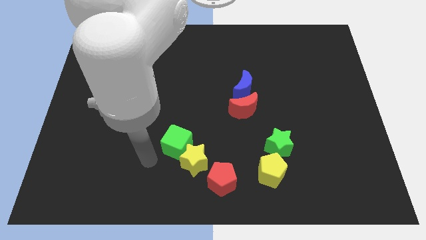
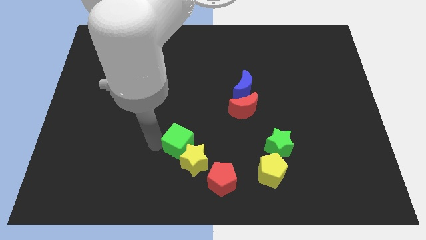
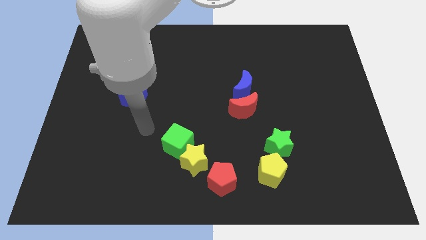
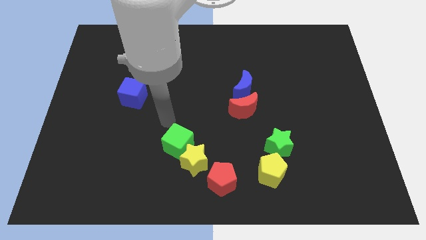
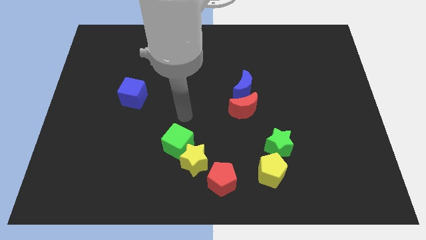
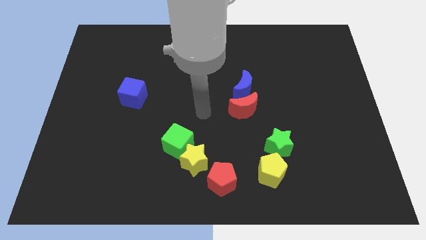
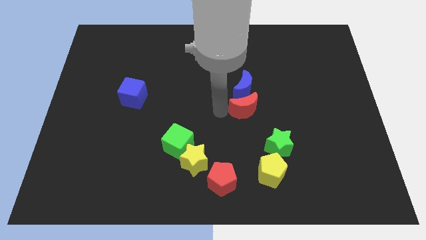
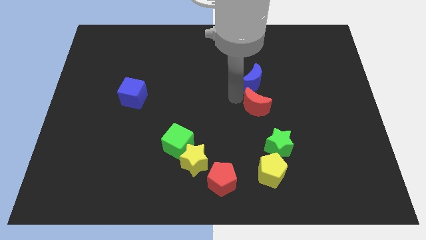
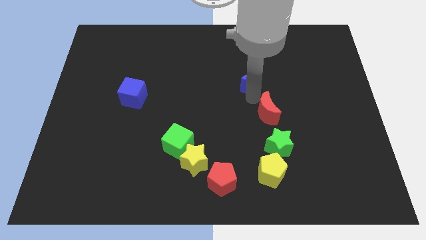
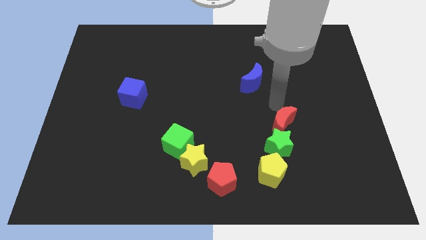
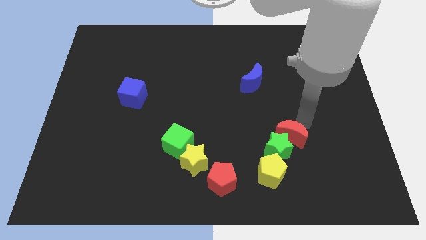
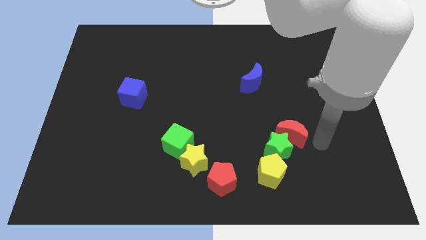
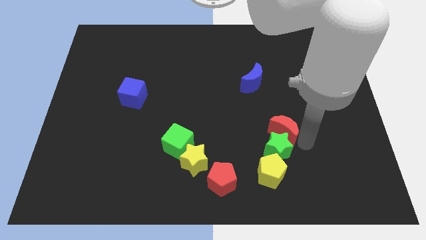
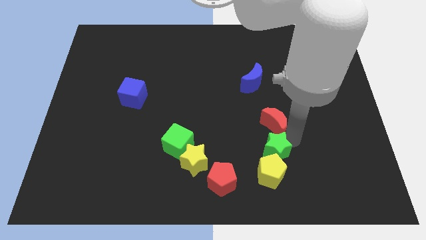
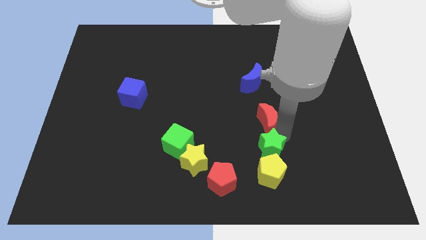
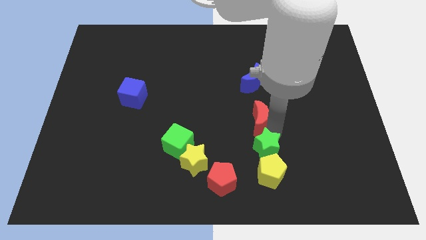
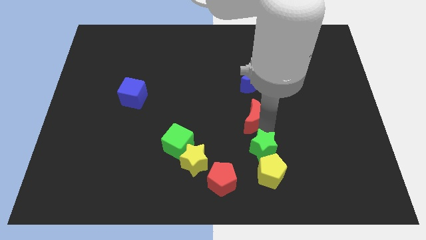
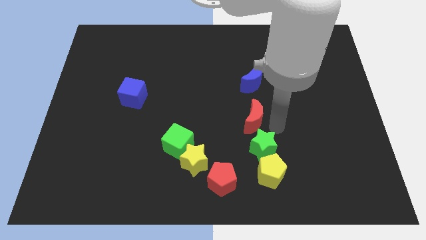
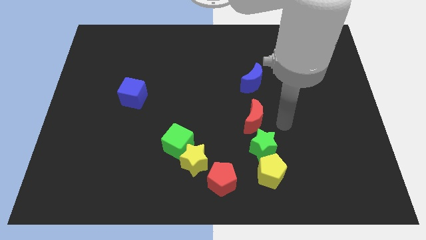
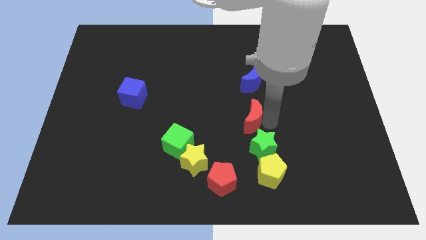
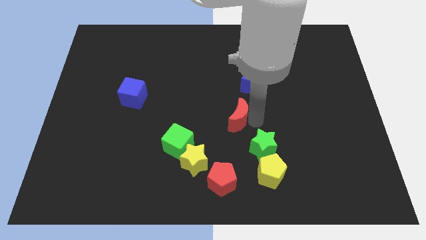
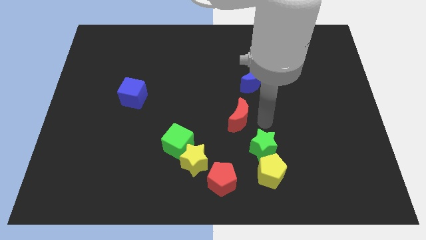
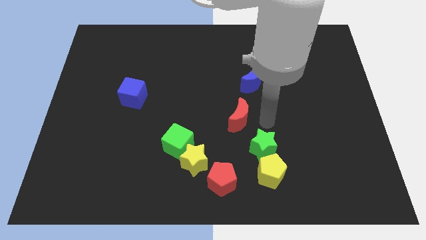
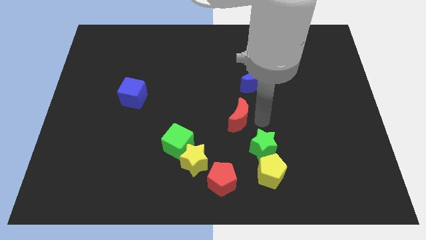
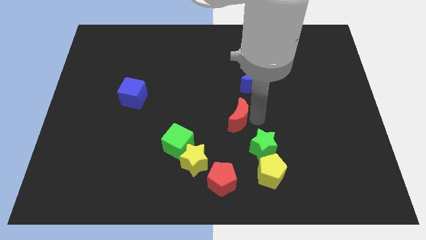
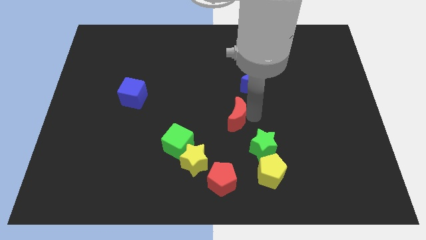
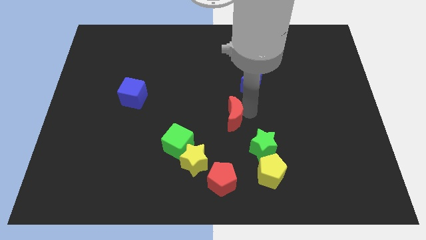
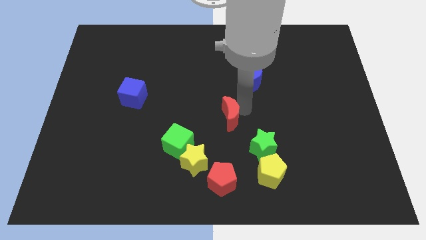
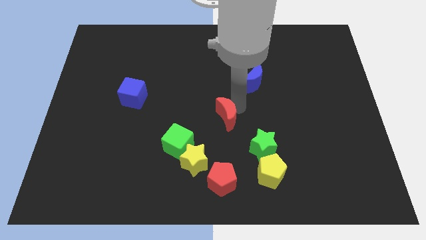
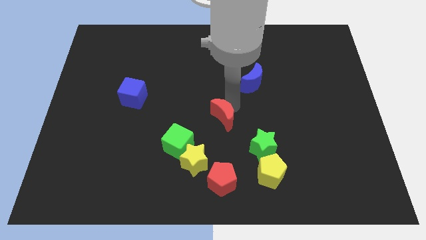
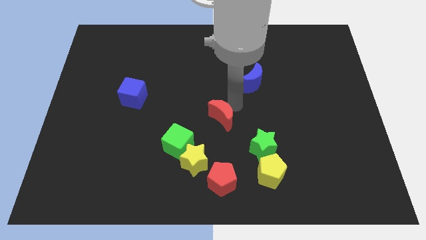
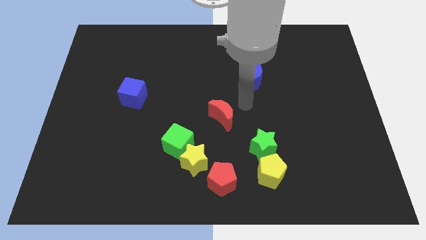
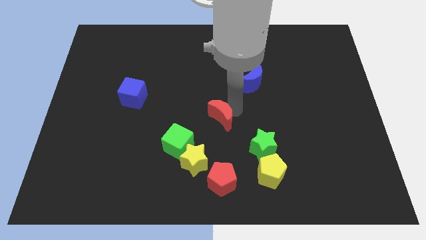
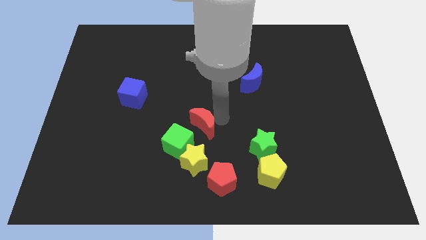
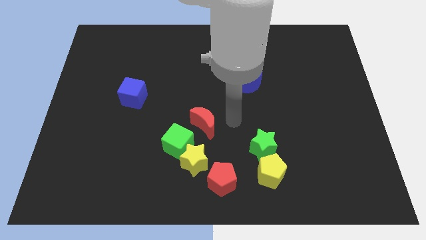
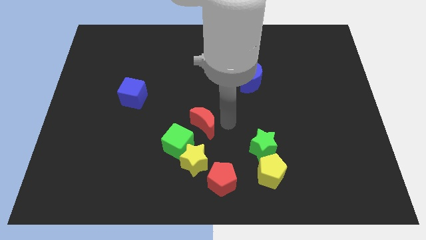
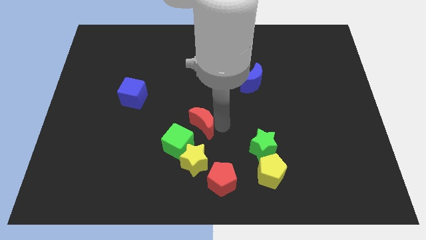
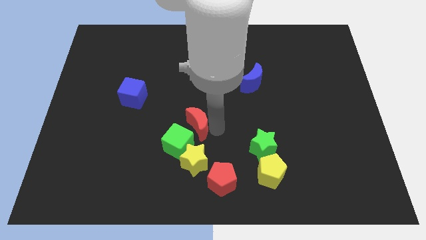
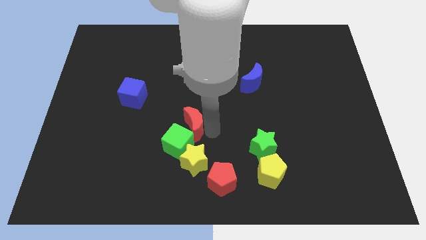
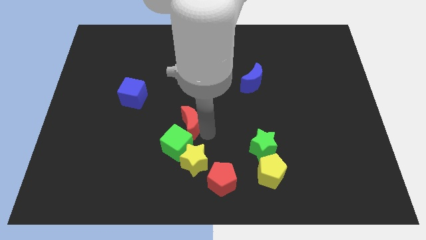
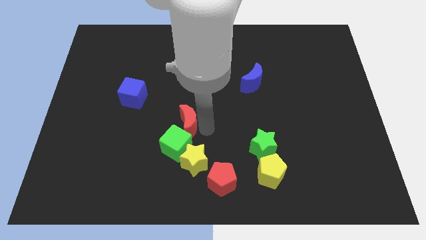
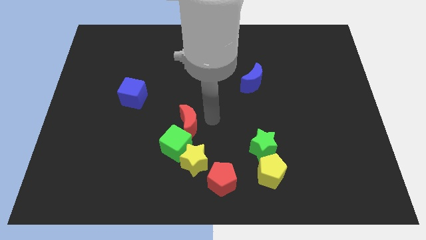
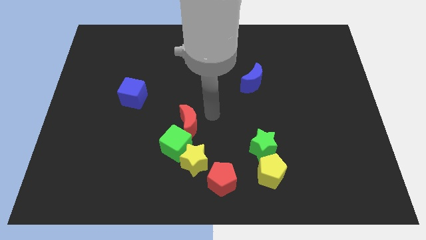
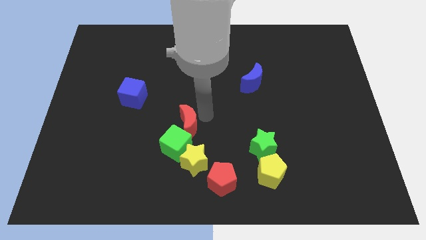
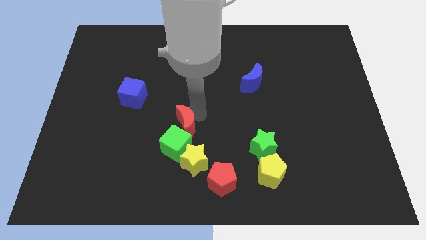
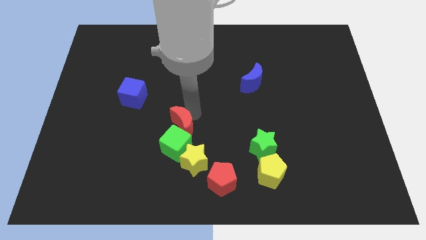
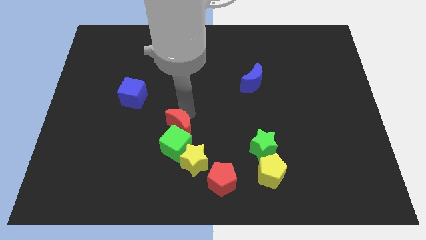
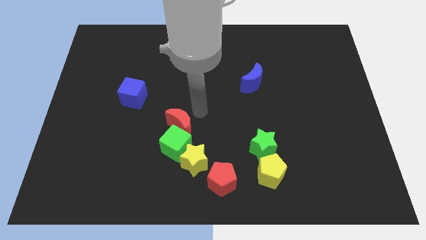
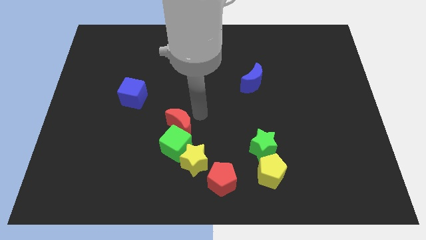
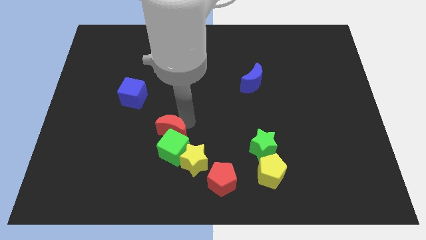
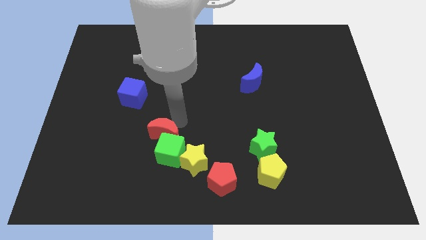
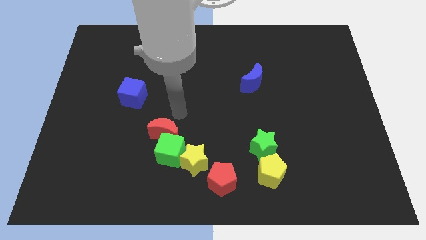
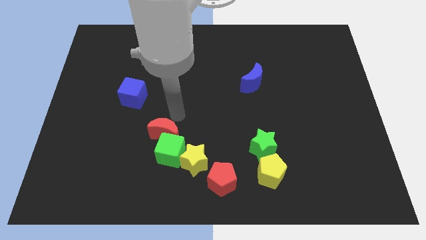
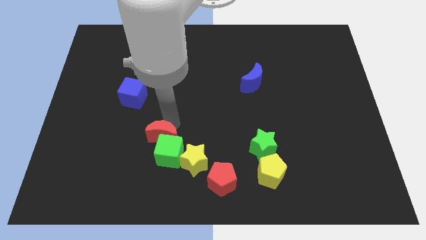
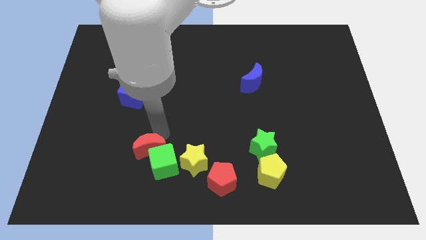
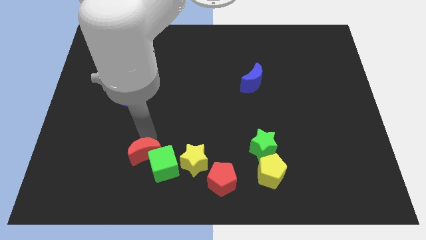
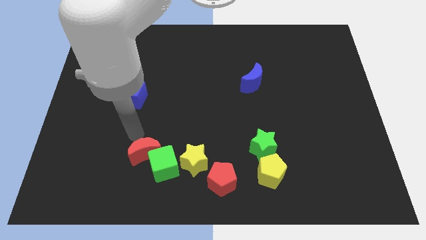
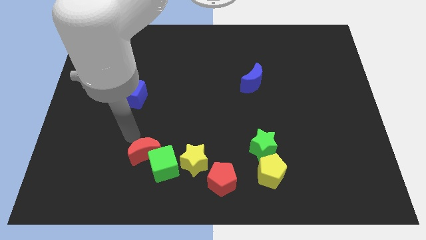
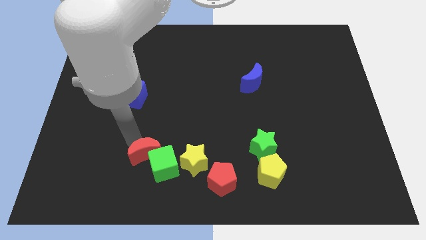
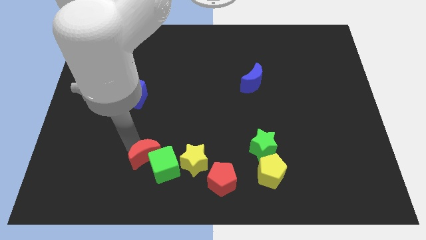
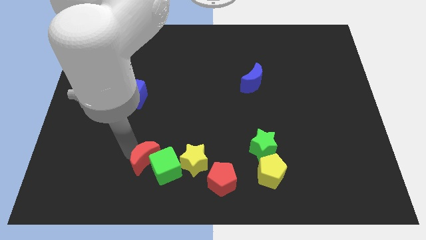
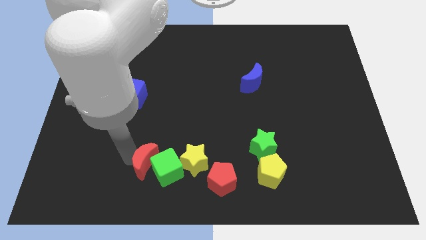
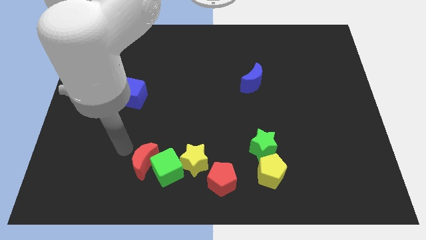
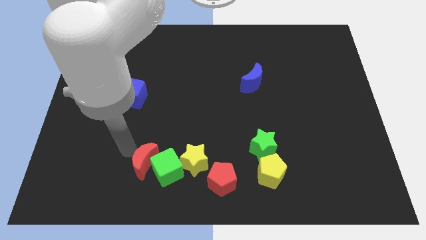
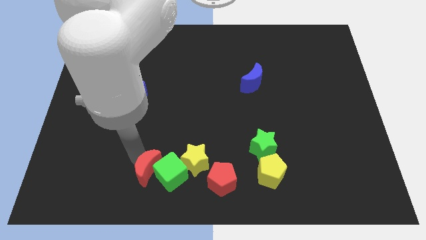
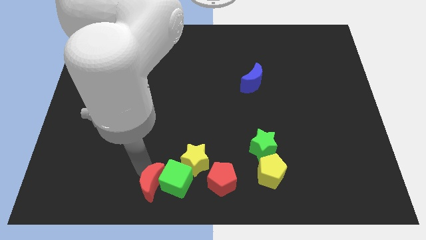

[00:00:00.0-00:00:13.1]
slide the red moon to the bottom side
